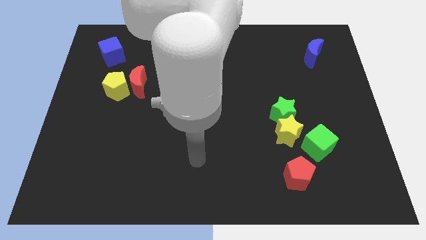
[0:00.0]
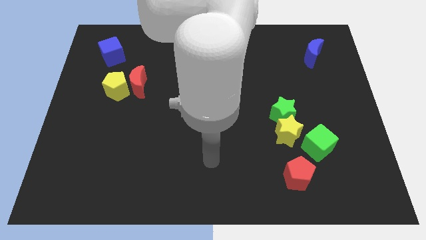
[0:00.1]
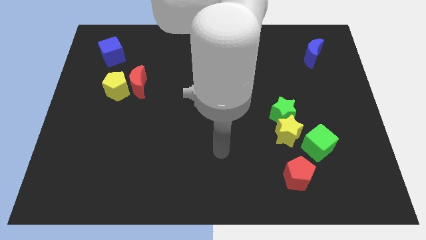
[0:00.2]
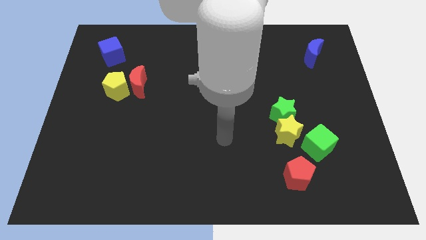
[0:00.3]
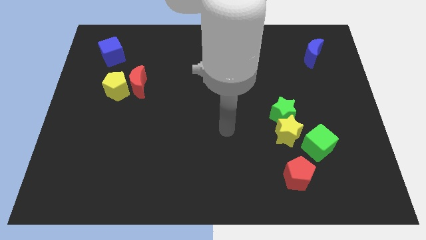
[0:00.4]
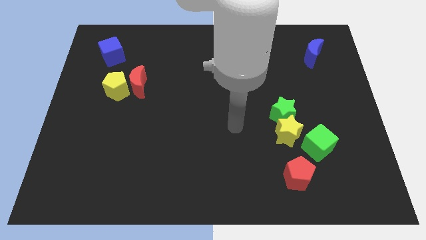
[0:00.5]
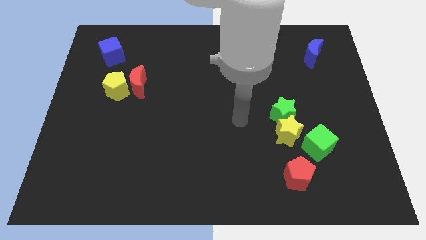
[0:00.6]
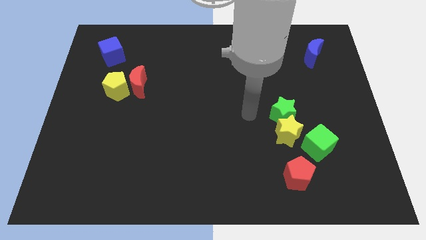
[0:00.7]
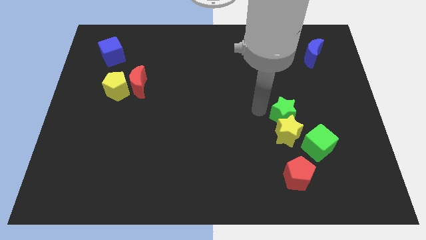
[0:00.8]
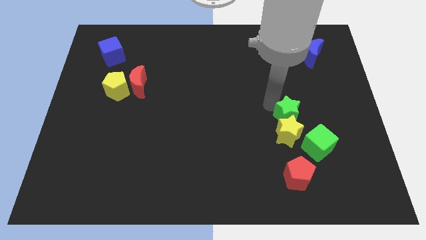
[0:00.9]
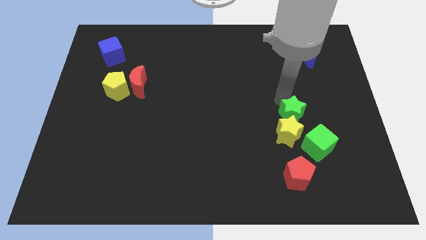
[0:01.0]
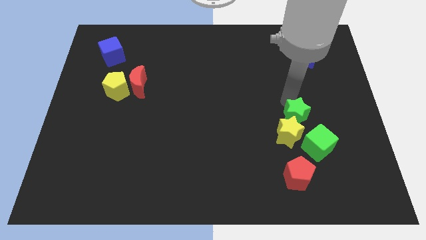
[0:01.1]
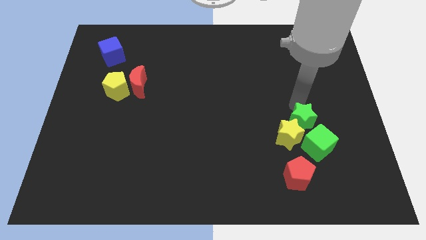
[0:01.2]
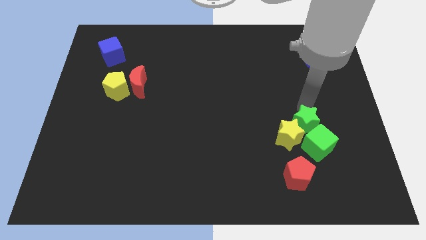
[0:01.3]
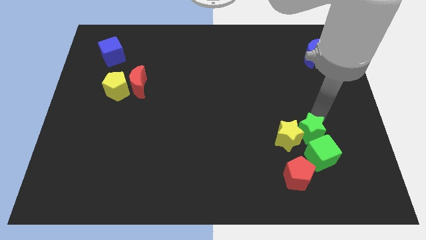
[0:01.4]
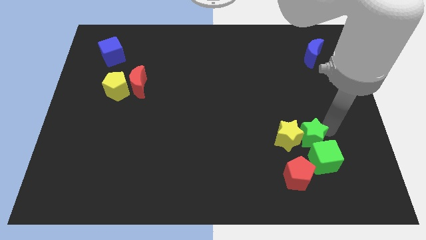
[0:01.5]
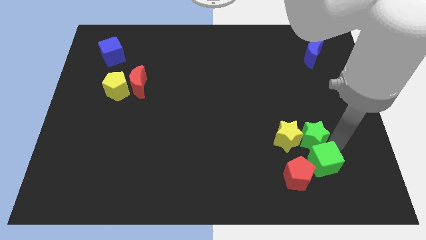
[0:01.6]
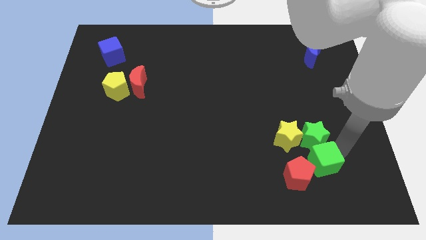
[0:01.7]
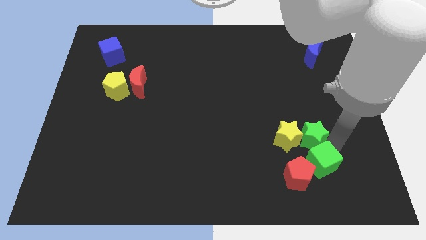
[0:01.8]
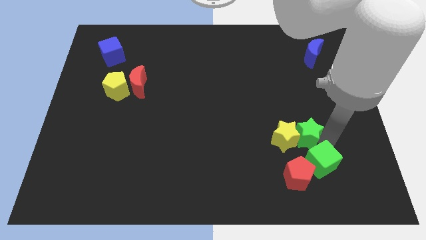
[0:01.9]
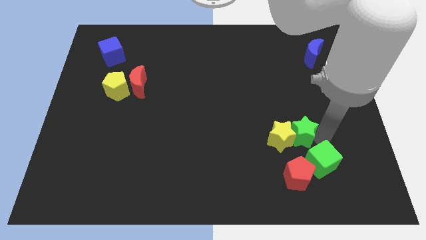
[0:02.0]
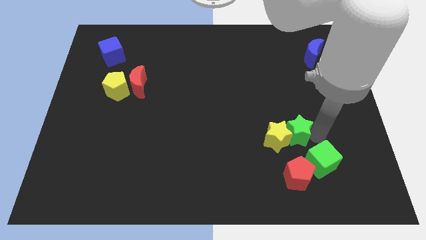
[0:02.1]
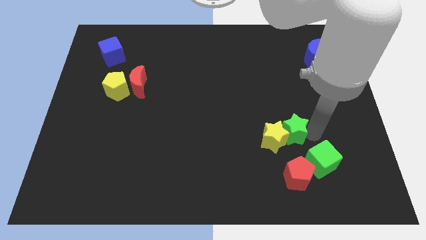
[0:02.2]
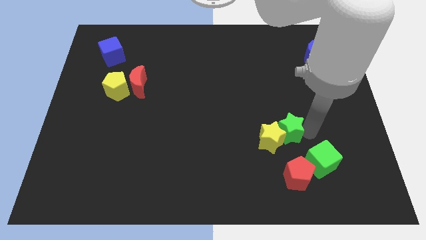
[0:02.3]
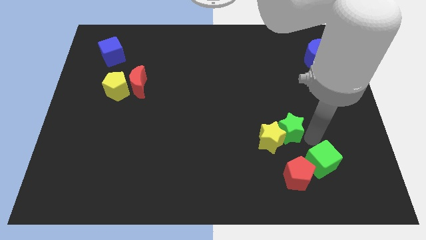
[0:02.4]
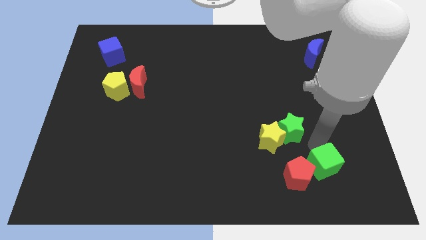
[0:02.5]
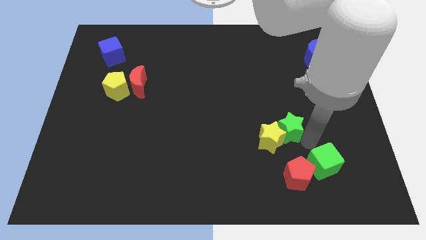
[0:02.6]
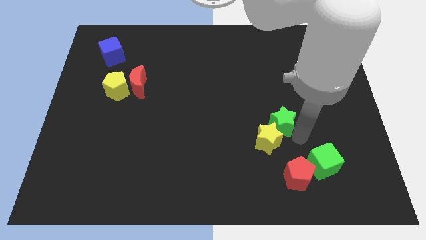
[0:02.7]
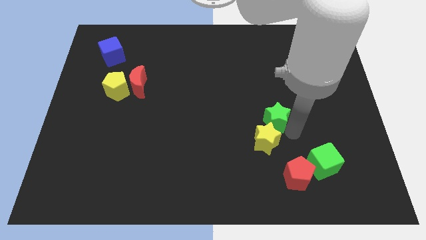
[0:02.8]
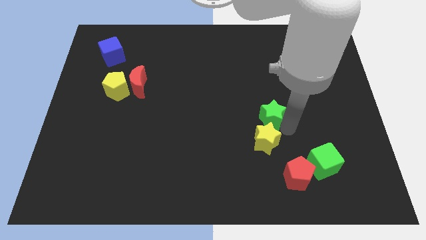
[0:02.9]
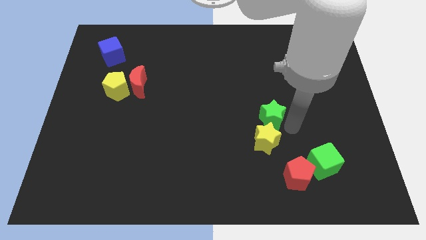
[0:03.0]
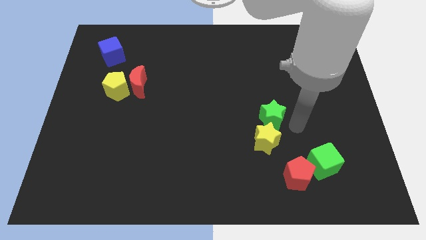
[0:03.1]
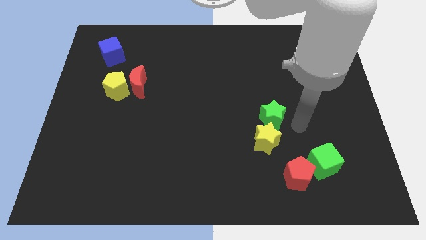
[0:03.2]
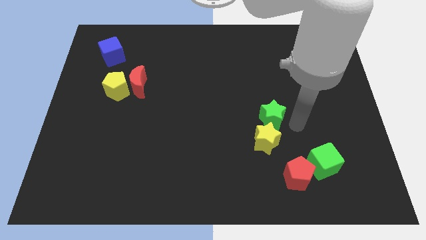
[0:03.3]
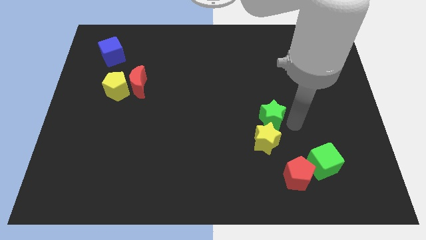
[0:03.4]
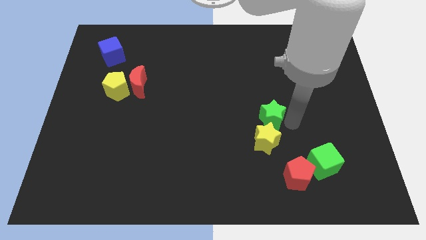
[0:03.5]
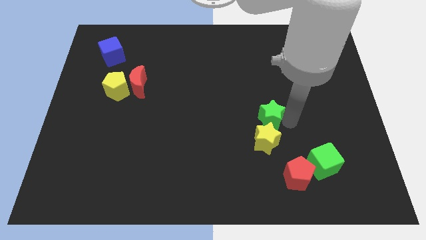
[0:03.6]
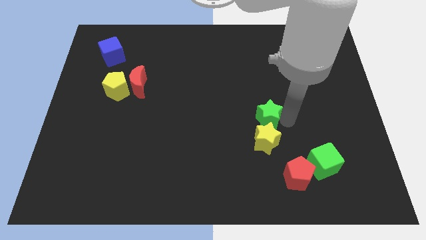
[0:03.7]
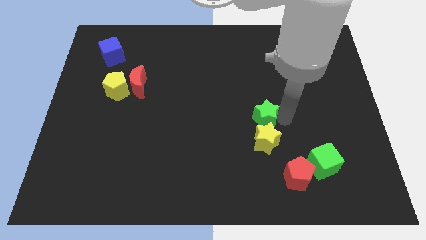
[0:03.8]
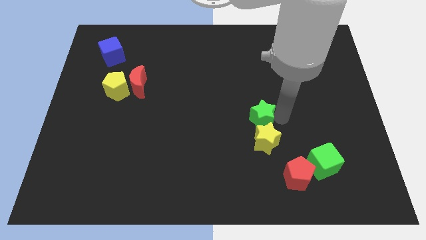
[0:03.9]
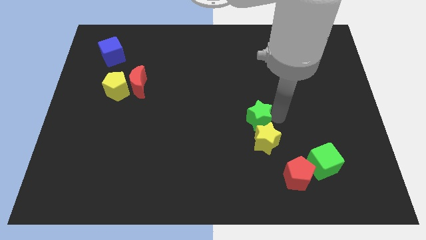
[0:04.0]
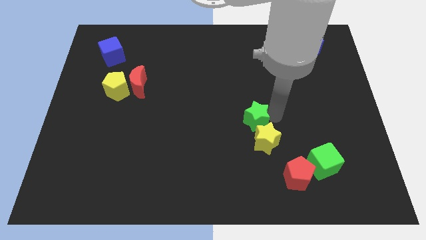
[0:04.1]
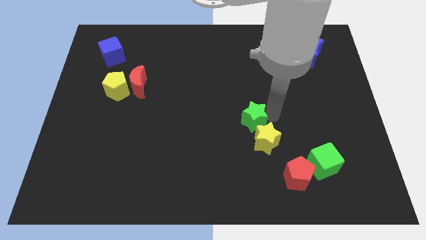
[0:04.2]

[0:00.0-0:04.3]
slightly move the green star to the left

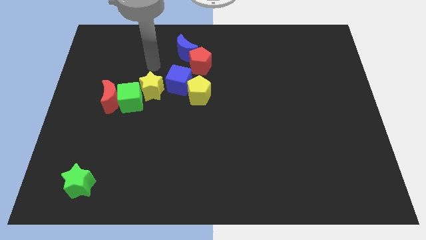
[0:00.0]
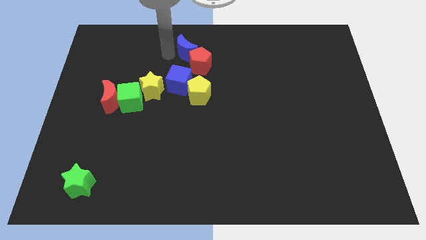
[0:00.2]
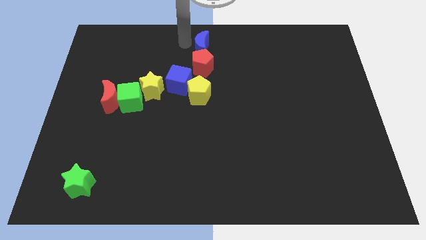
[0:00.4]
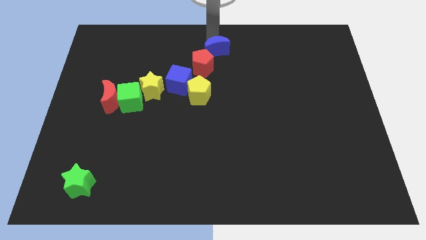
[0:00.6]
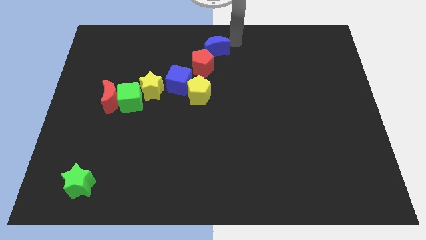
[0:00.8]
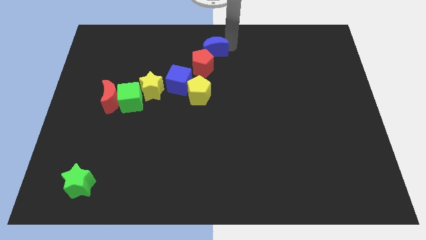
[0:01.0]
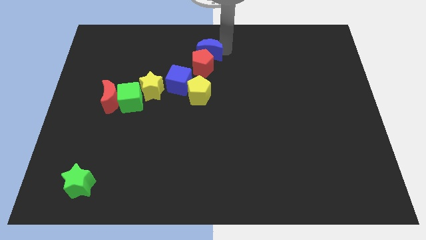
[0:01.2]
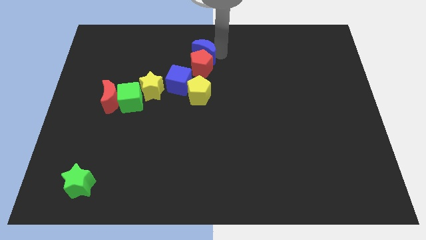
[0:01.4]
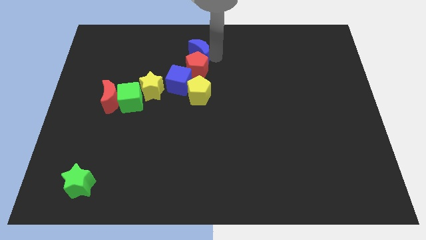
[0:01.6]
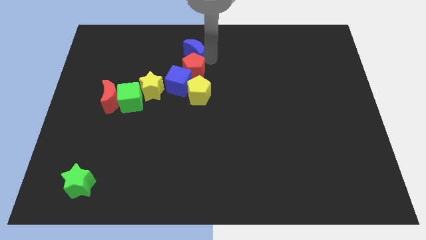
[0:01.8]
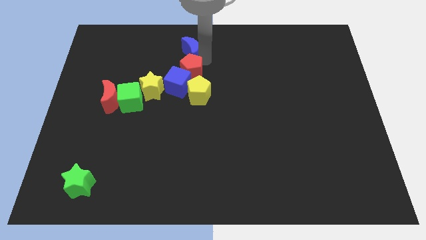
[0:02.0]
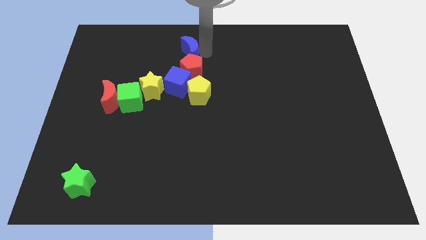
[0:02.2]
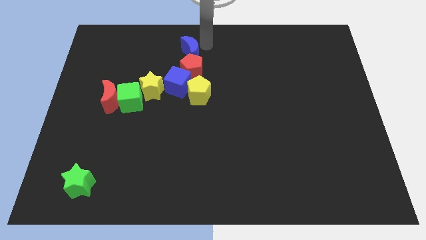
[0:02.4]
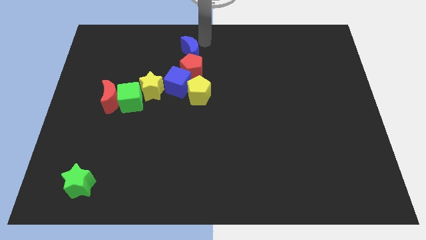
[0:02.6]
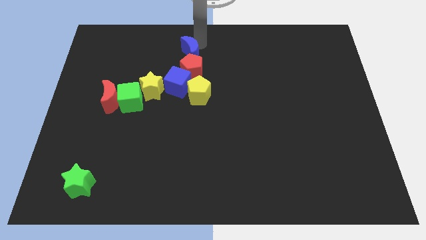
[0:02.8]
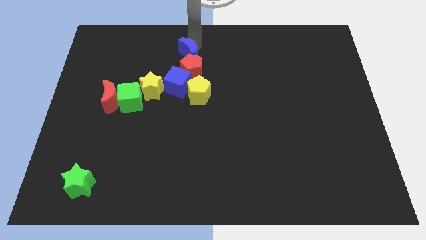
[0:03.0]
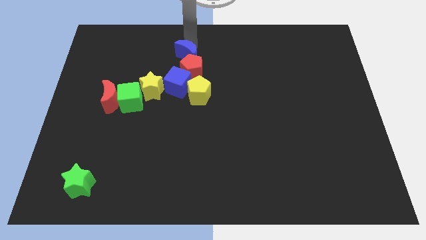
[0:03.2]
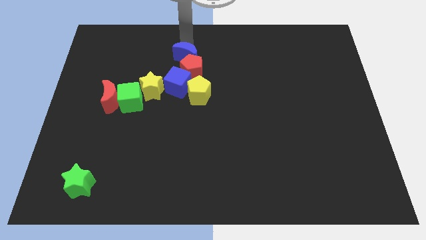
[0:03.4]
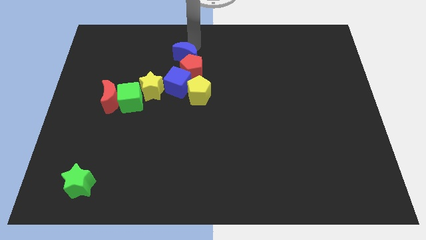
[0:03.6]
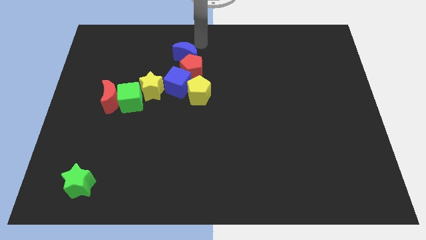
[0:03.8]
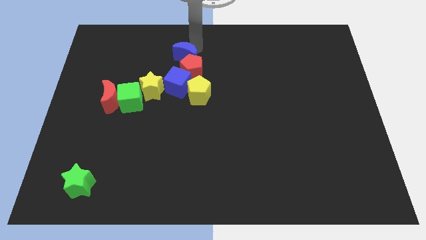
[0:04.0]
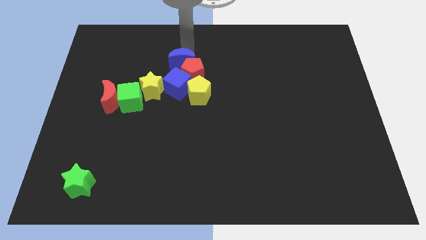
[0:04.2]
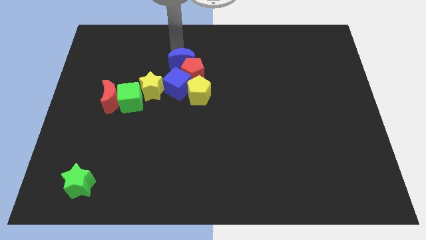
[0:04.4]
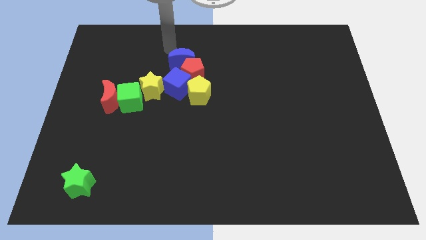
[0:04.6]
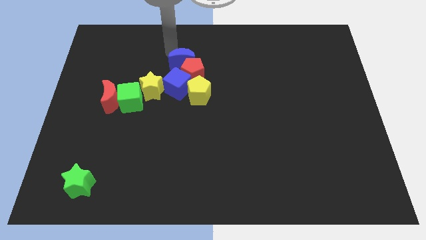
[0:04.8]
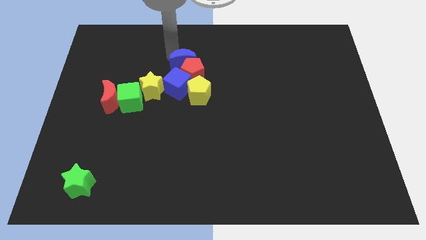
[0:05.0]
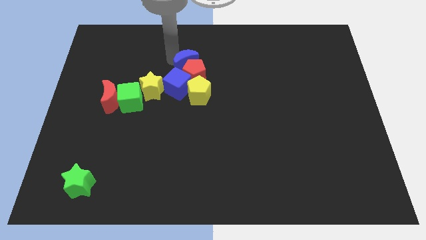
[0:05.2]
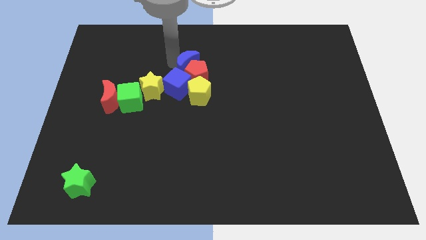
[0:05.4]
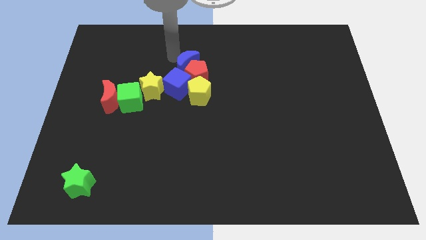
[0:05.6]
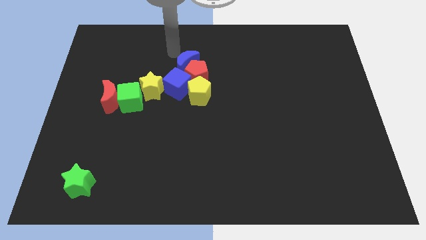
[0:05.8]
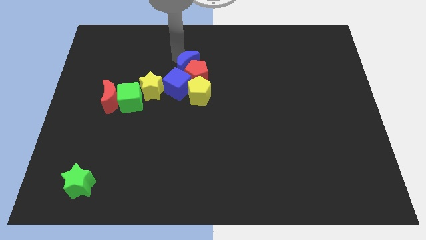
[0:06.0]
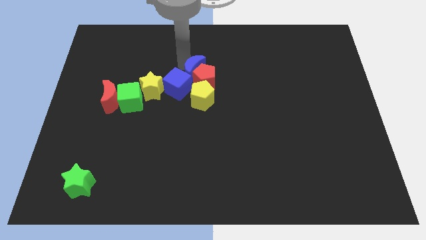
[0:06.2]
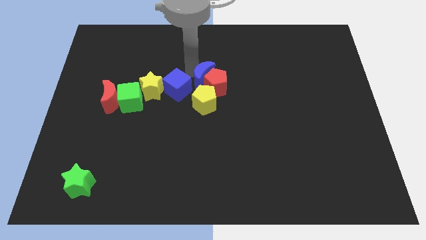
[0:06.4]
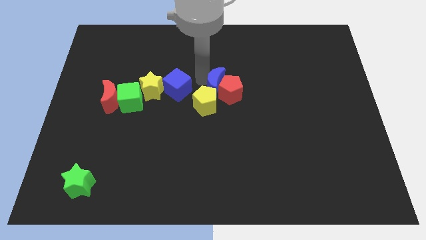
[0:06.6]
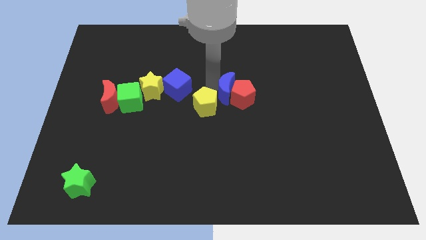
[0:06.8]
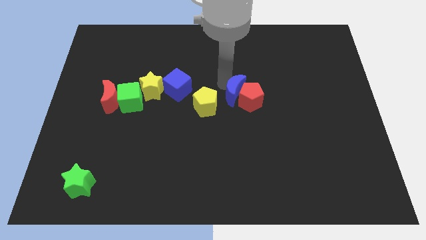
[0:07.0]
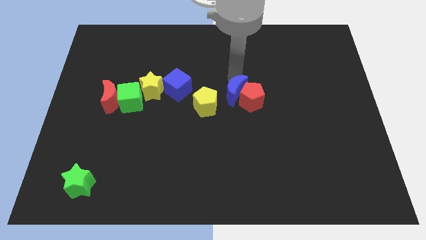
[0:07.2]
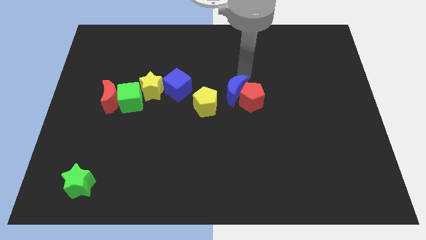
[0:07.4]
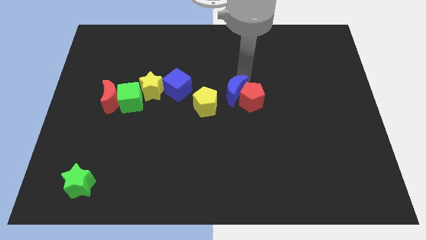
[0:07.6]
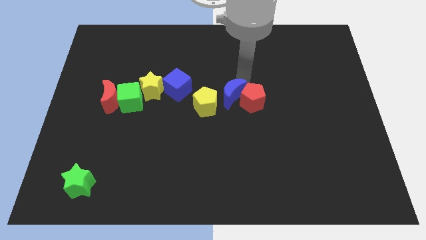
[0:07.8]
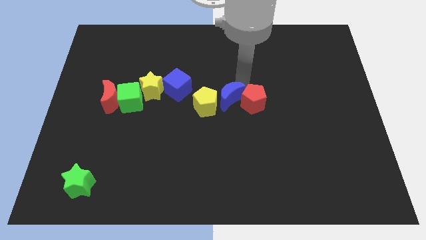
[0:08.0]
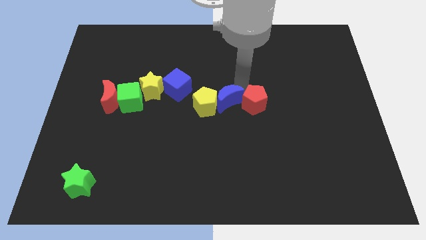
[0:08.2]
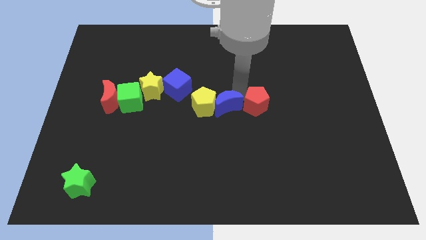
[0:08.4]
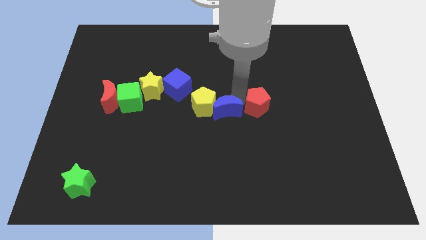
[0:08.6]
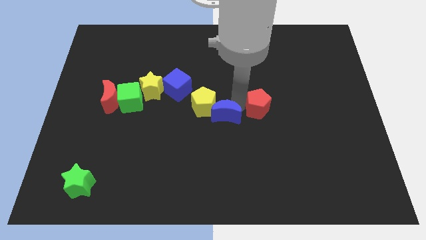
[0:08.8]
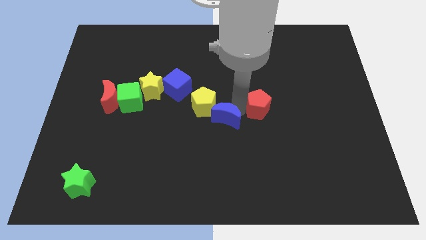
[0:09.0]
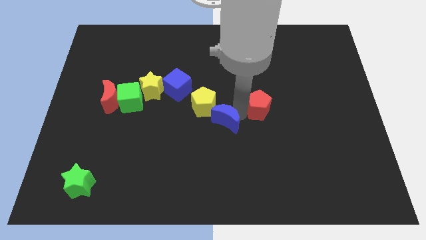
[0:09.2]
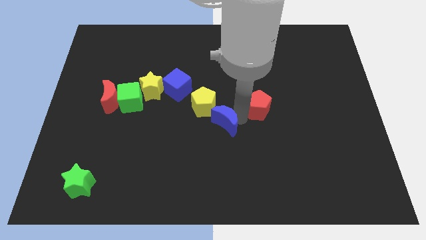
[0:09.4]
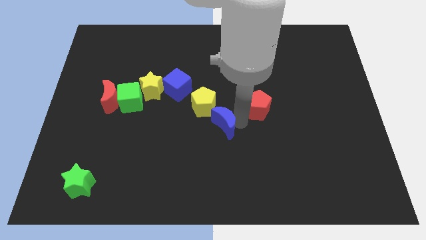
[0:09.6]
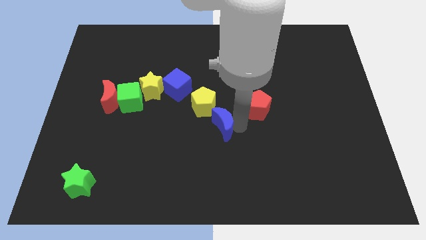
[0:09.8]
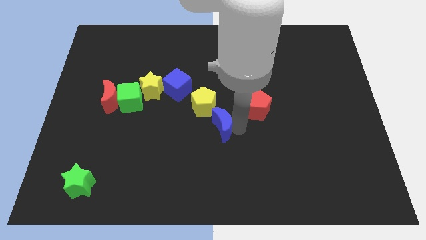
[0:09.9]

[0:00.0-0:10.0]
move the blue moon down
